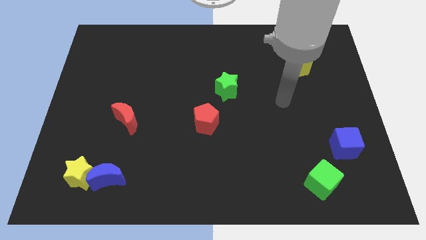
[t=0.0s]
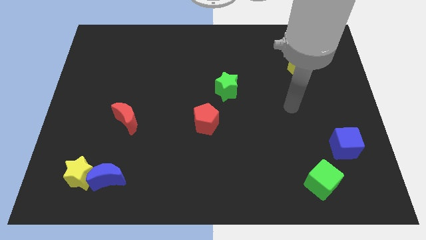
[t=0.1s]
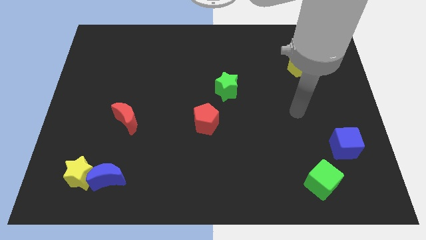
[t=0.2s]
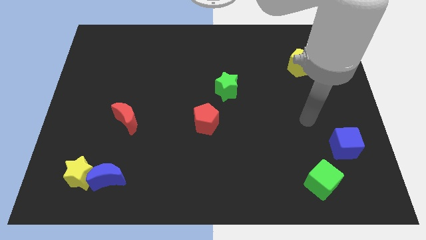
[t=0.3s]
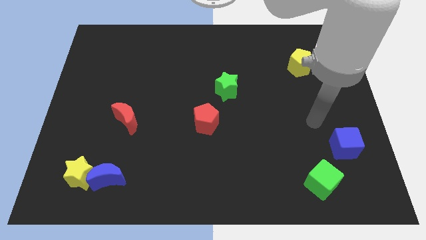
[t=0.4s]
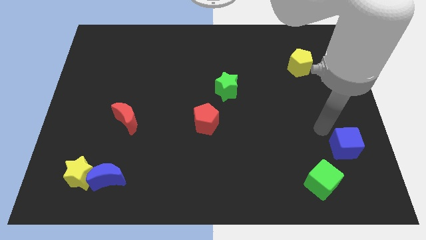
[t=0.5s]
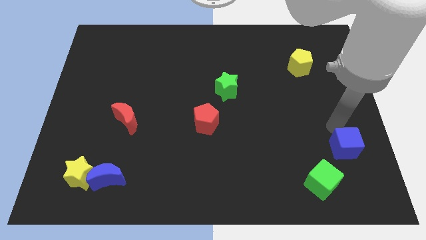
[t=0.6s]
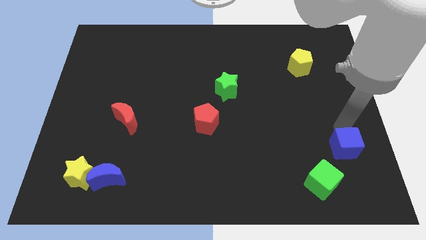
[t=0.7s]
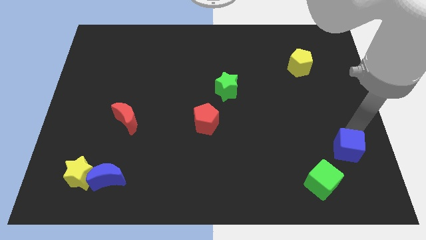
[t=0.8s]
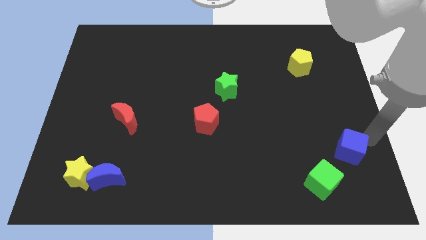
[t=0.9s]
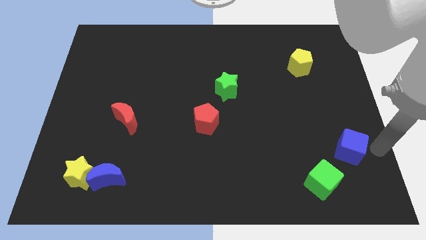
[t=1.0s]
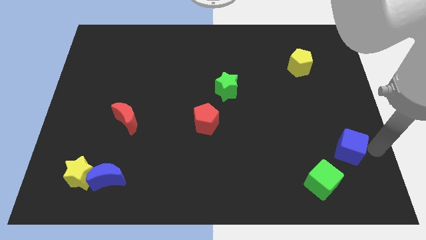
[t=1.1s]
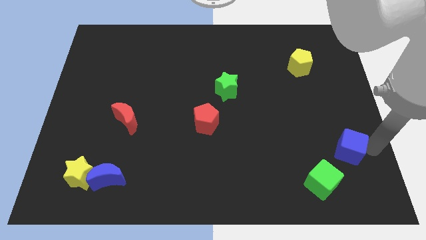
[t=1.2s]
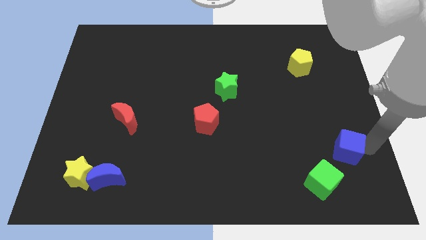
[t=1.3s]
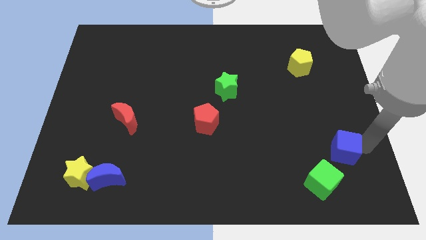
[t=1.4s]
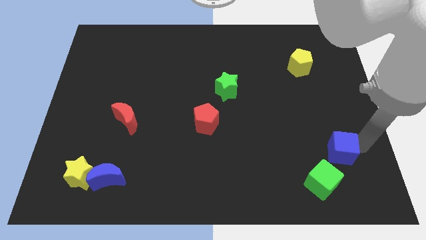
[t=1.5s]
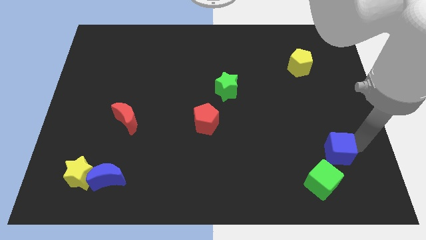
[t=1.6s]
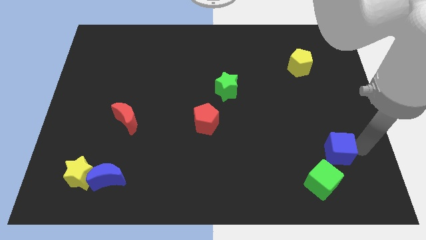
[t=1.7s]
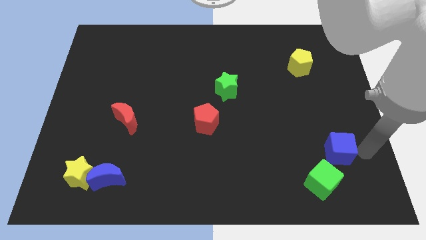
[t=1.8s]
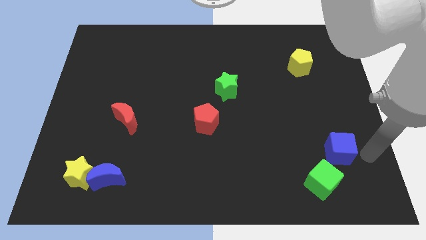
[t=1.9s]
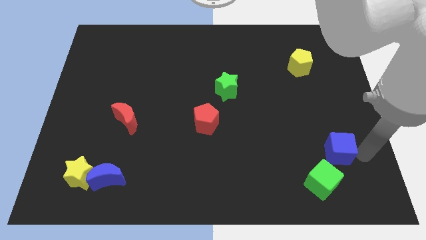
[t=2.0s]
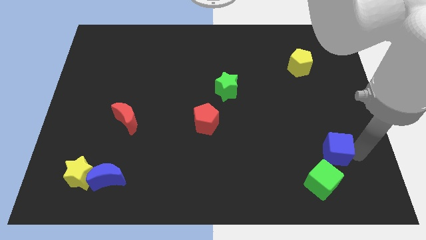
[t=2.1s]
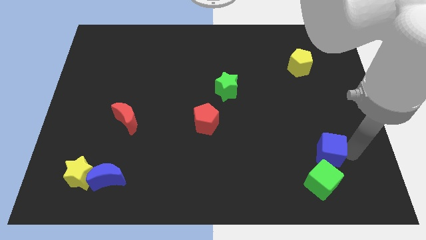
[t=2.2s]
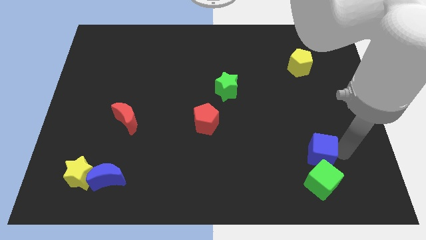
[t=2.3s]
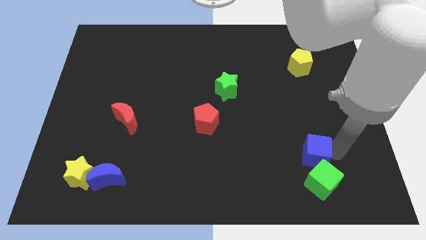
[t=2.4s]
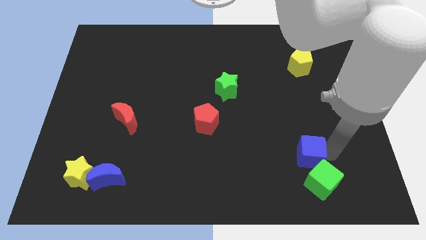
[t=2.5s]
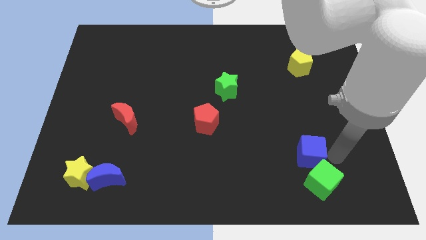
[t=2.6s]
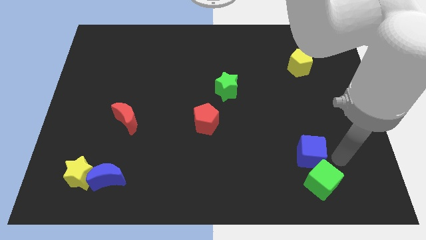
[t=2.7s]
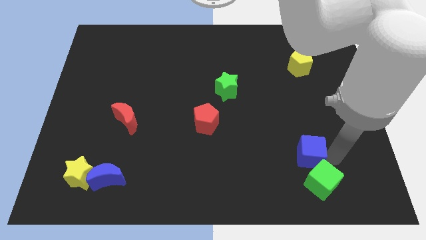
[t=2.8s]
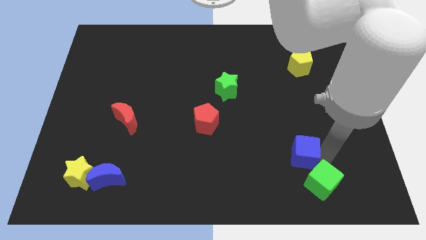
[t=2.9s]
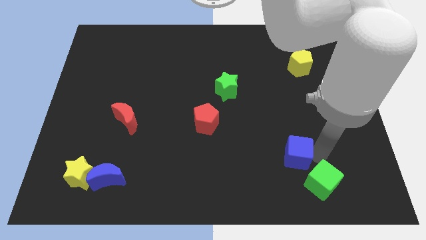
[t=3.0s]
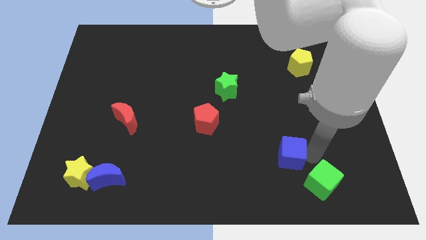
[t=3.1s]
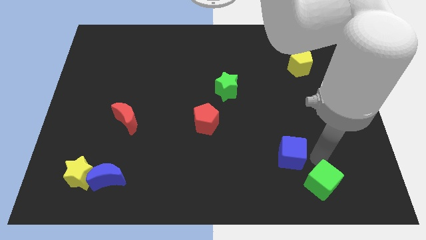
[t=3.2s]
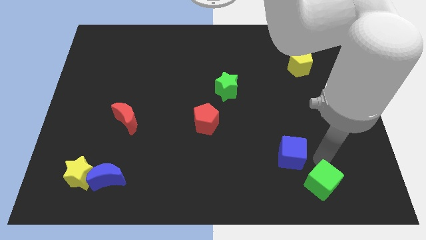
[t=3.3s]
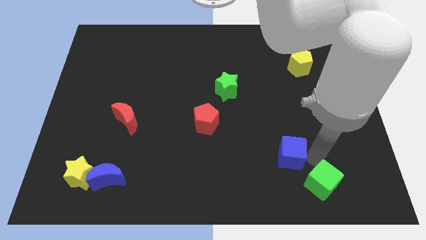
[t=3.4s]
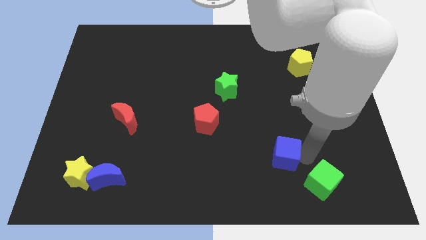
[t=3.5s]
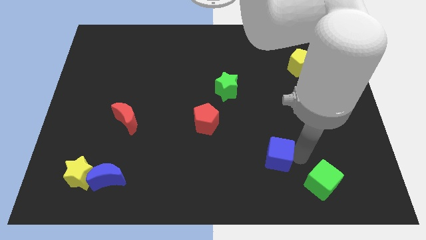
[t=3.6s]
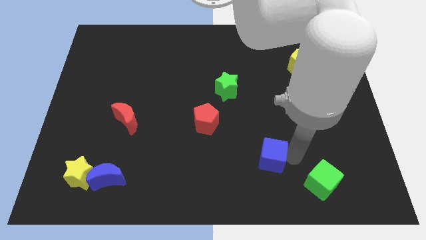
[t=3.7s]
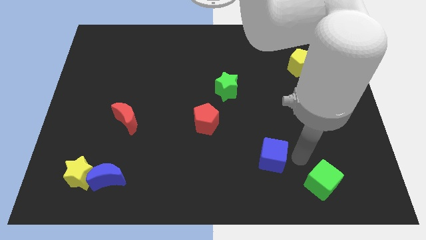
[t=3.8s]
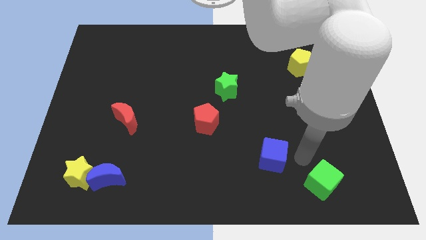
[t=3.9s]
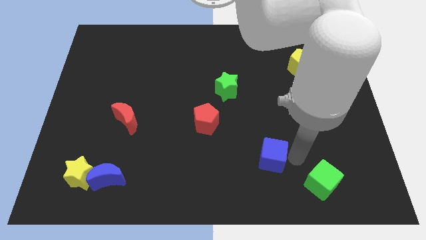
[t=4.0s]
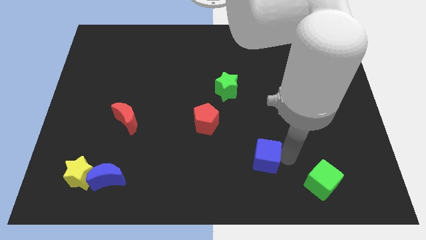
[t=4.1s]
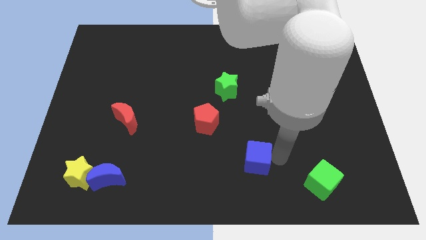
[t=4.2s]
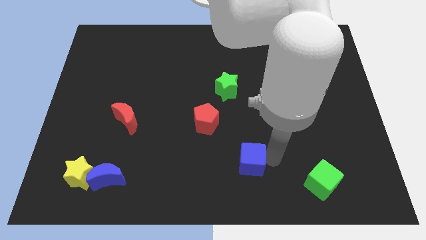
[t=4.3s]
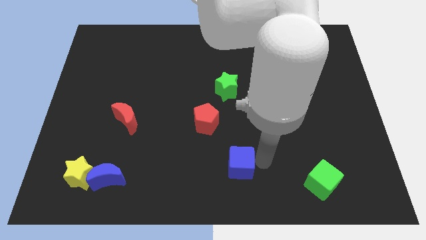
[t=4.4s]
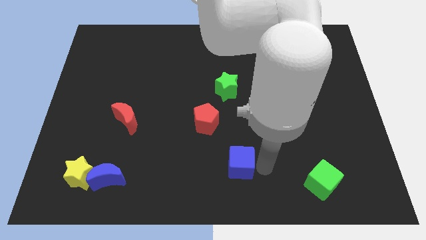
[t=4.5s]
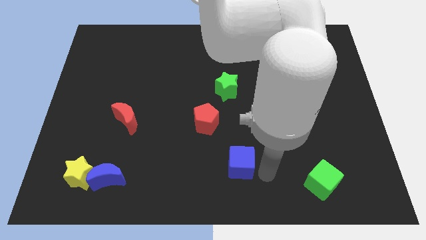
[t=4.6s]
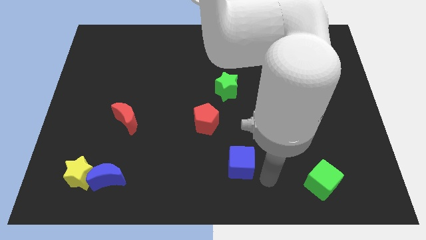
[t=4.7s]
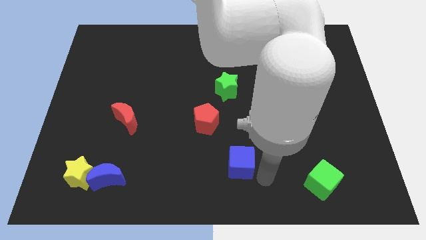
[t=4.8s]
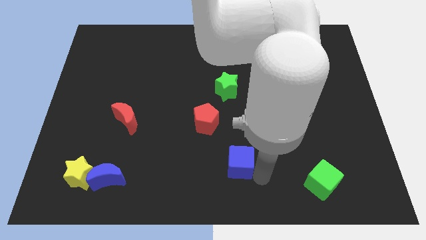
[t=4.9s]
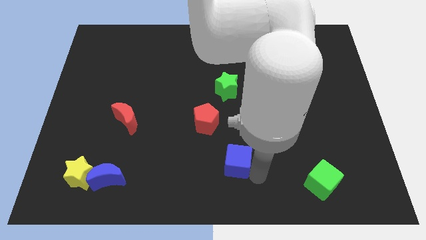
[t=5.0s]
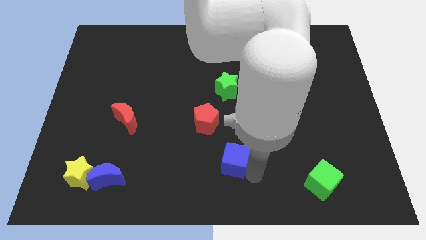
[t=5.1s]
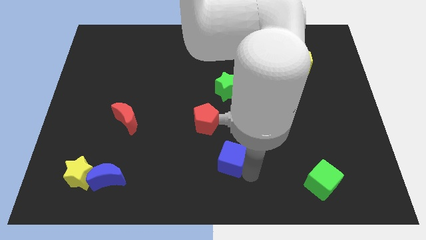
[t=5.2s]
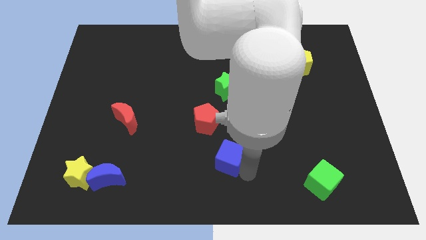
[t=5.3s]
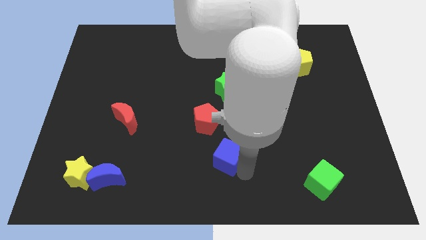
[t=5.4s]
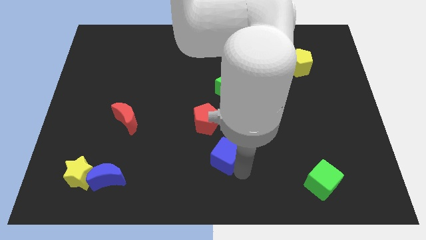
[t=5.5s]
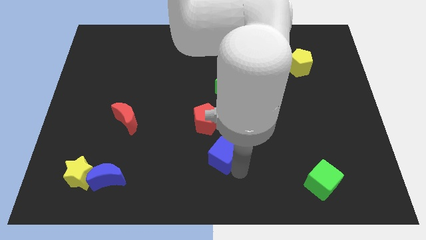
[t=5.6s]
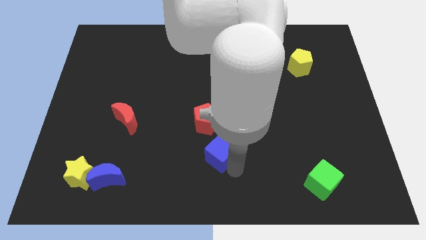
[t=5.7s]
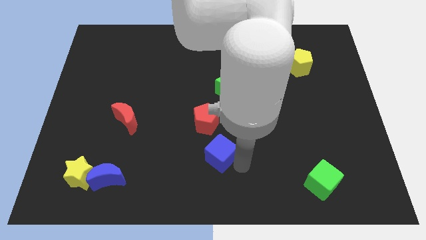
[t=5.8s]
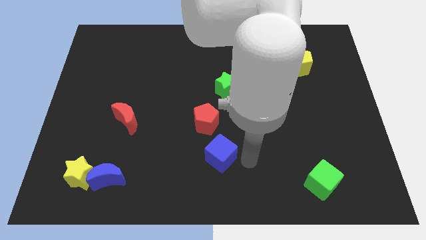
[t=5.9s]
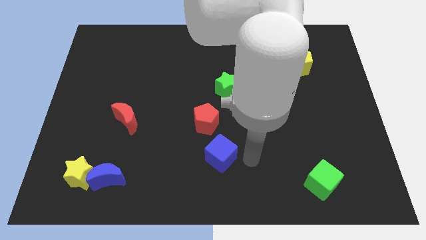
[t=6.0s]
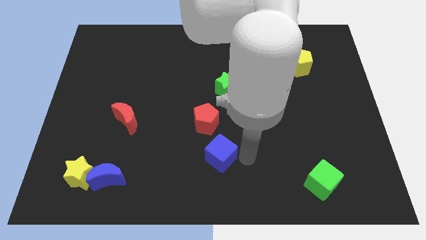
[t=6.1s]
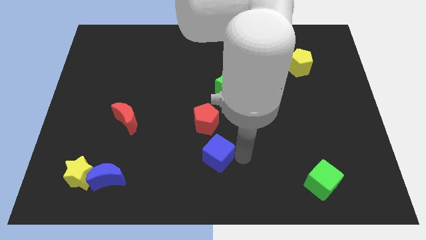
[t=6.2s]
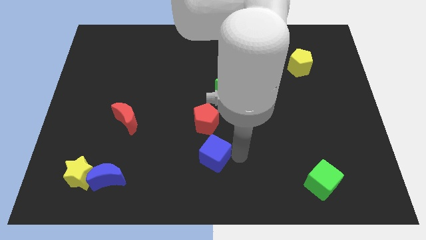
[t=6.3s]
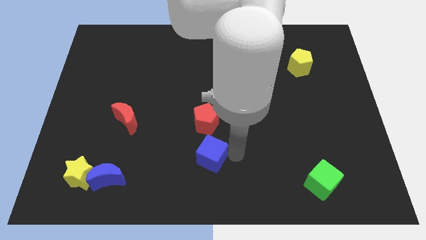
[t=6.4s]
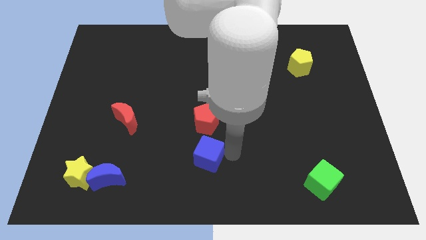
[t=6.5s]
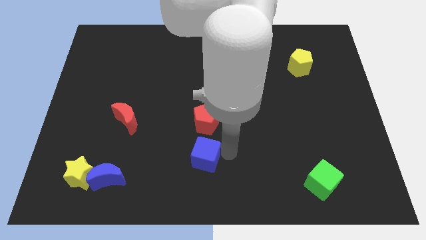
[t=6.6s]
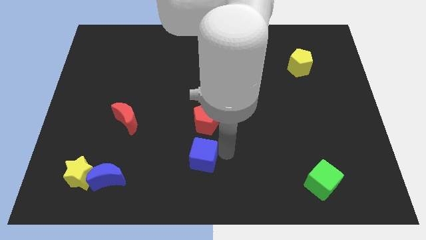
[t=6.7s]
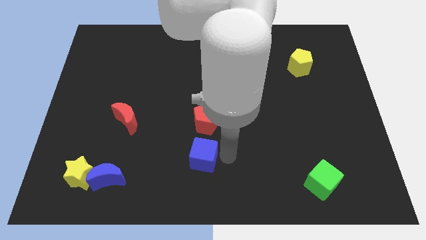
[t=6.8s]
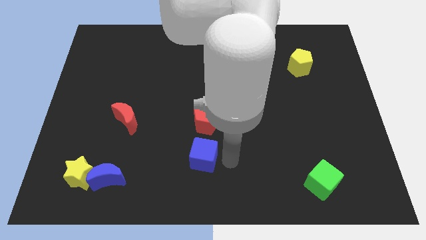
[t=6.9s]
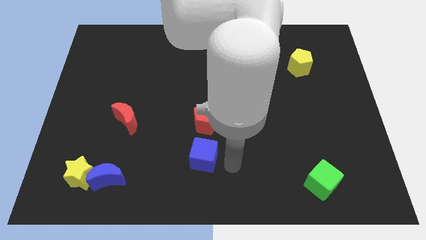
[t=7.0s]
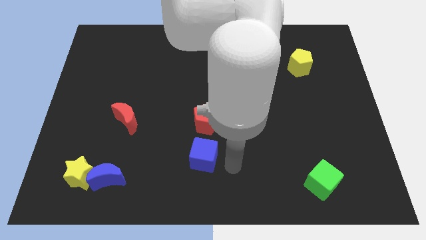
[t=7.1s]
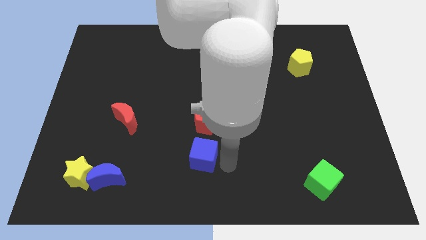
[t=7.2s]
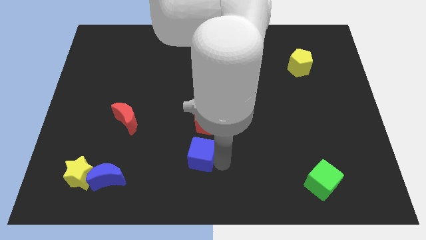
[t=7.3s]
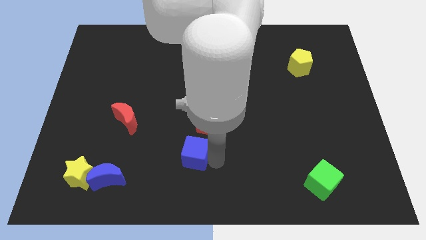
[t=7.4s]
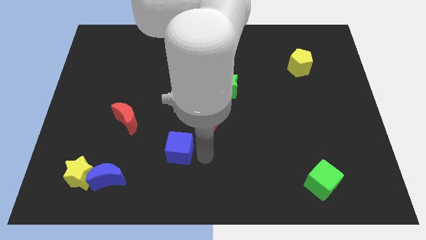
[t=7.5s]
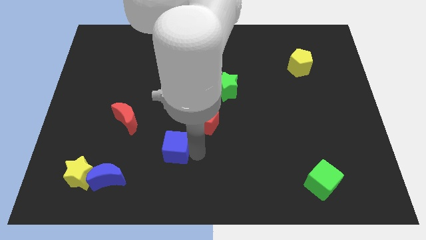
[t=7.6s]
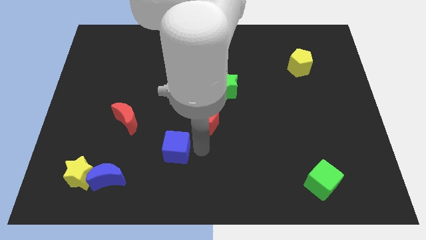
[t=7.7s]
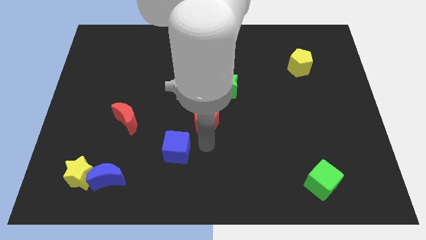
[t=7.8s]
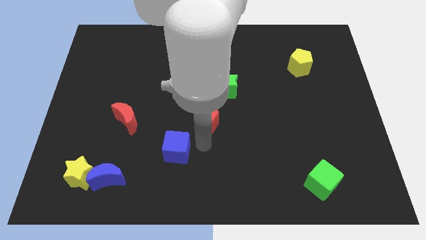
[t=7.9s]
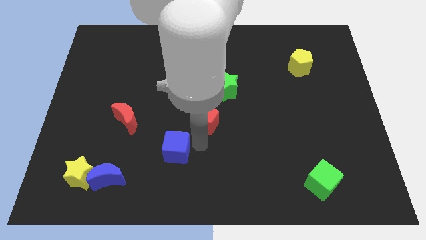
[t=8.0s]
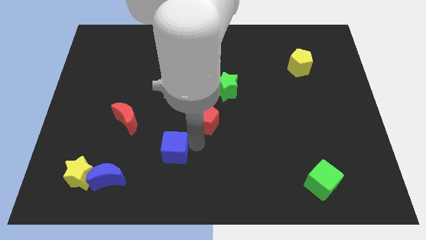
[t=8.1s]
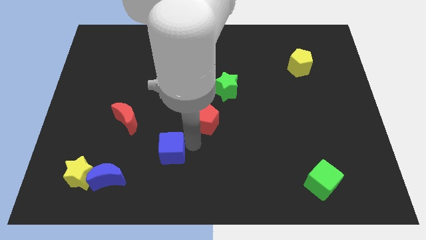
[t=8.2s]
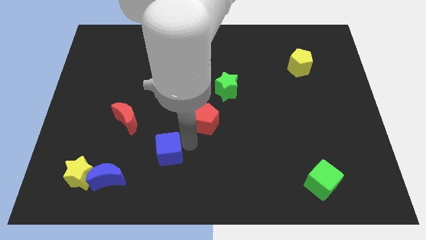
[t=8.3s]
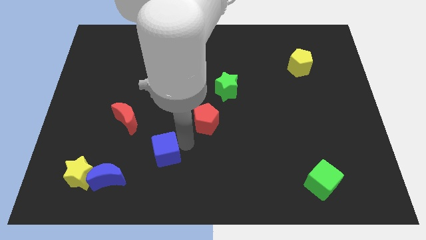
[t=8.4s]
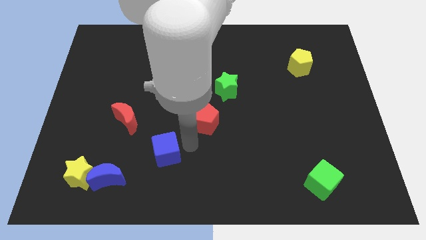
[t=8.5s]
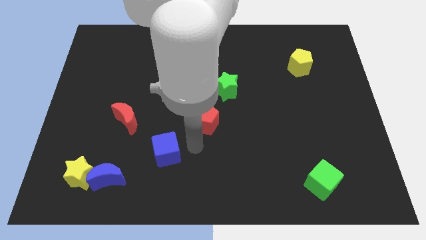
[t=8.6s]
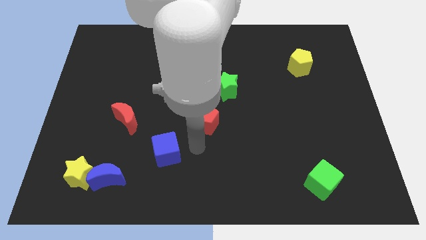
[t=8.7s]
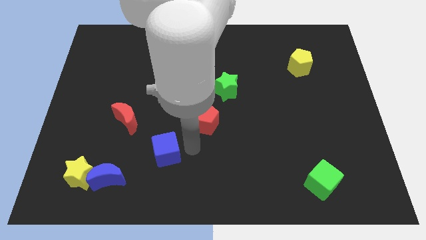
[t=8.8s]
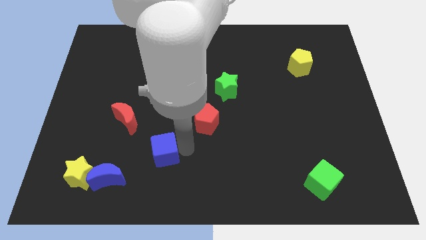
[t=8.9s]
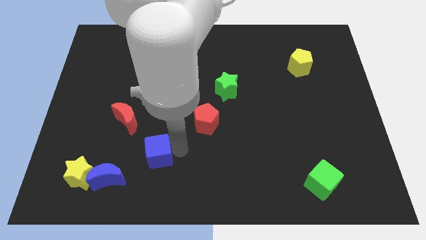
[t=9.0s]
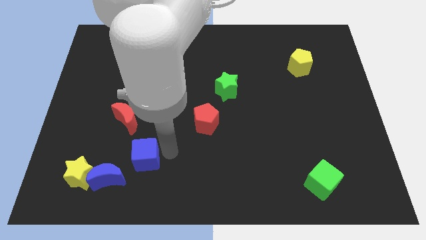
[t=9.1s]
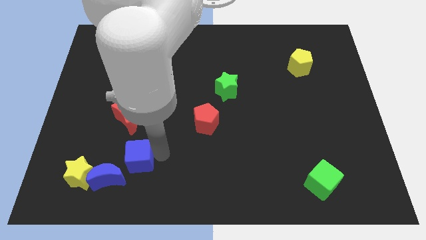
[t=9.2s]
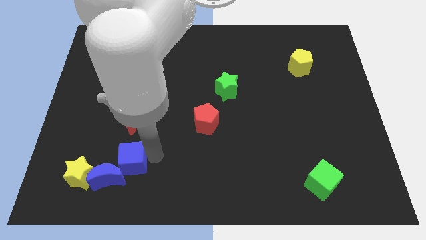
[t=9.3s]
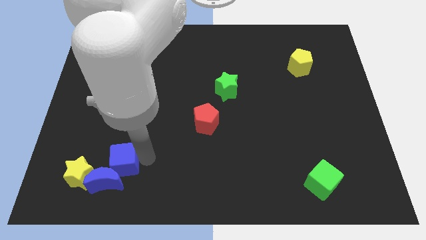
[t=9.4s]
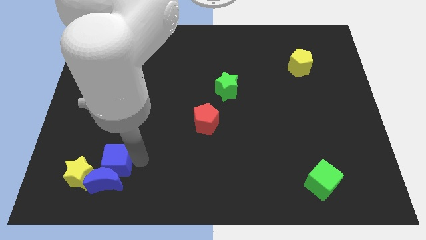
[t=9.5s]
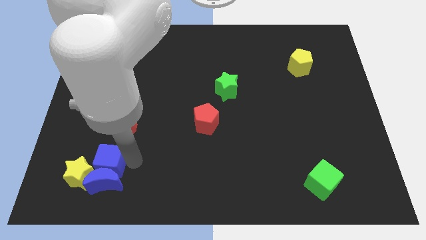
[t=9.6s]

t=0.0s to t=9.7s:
slide the blue cube next to the yellow star
